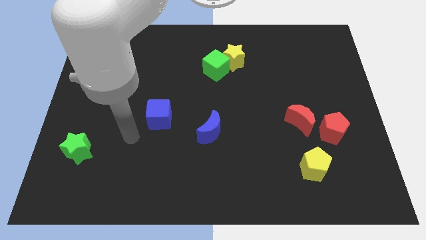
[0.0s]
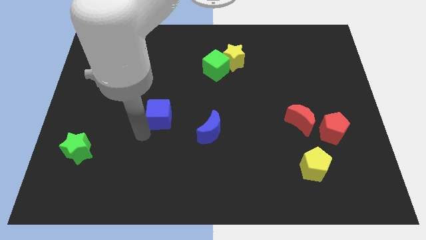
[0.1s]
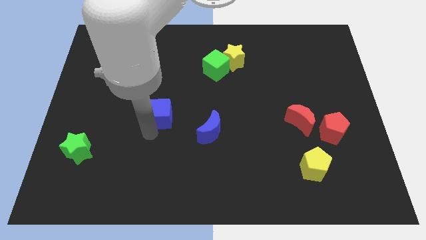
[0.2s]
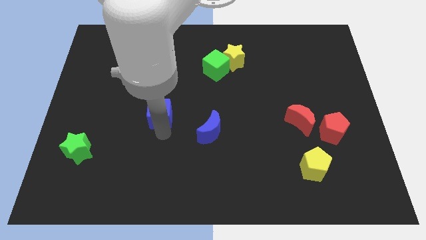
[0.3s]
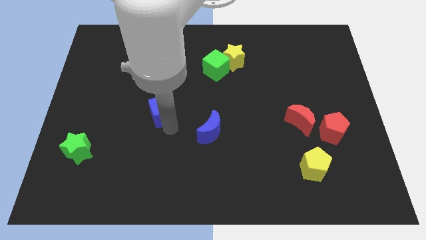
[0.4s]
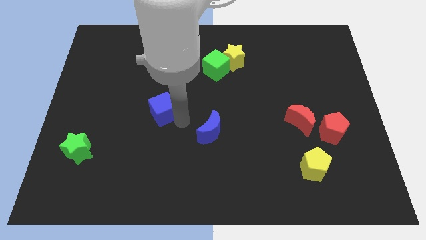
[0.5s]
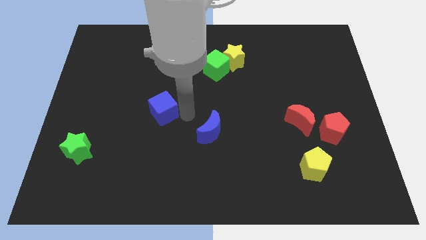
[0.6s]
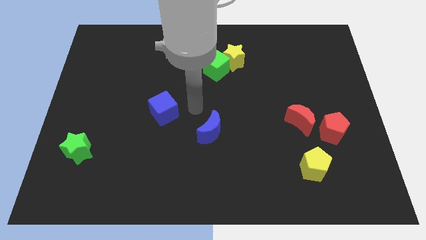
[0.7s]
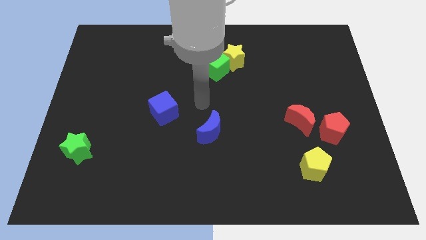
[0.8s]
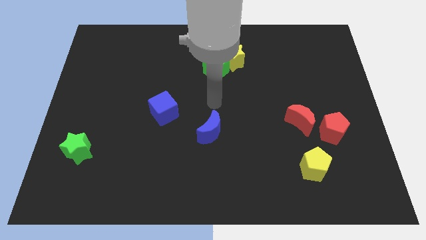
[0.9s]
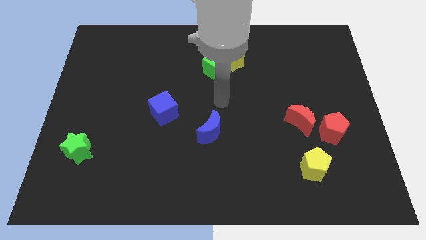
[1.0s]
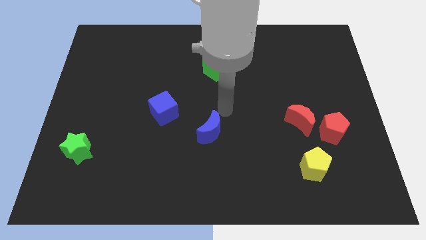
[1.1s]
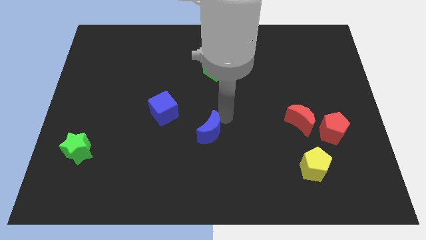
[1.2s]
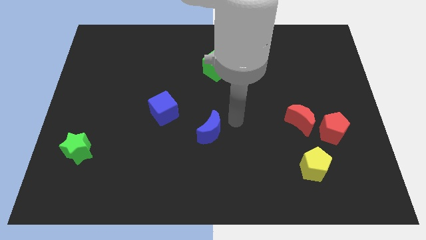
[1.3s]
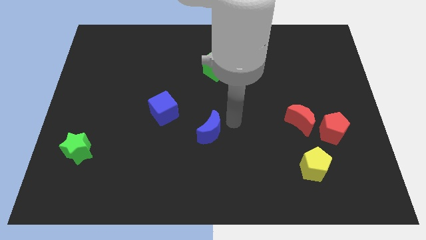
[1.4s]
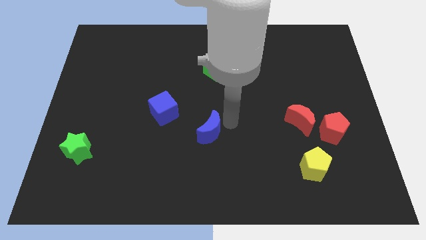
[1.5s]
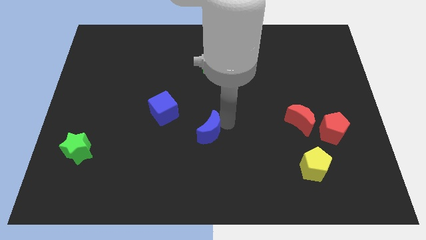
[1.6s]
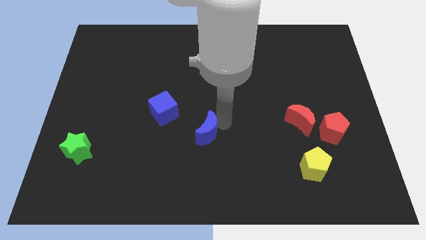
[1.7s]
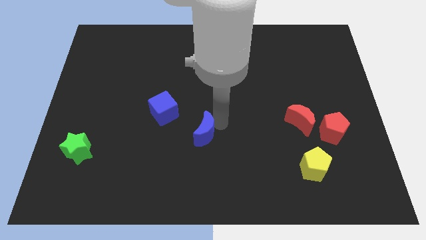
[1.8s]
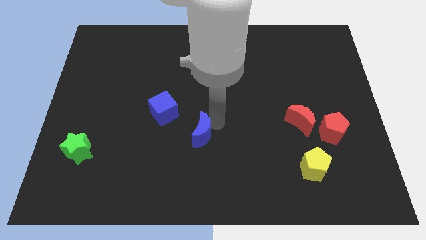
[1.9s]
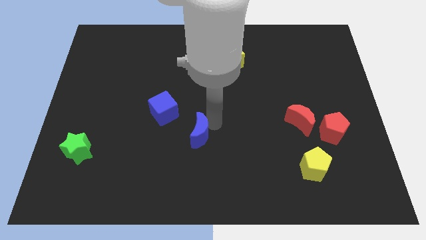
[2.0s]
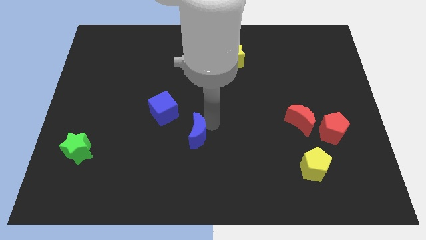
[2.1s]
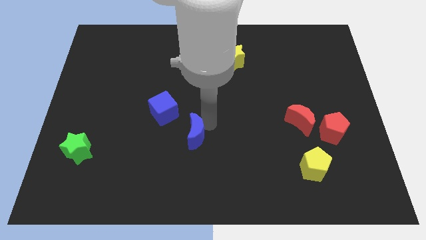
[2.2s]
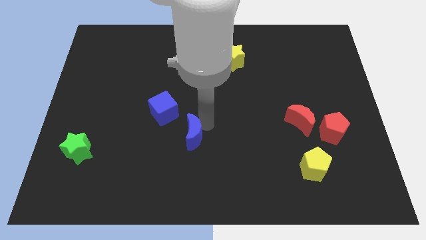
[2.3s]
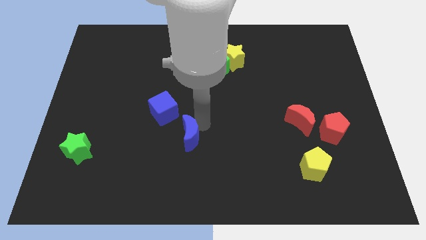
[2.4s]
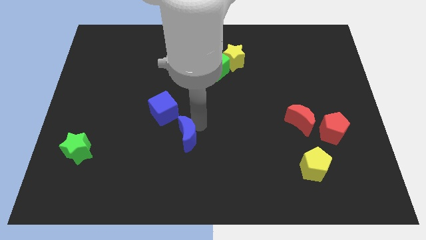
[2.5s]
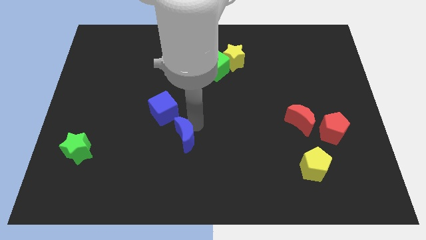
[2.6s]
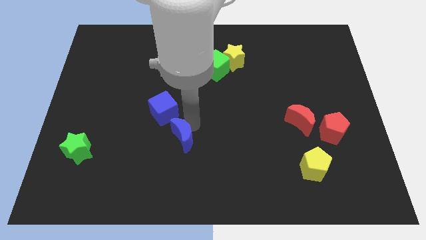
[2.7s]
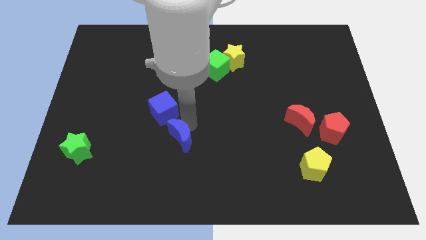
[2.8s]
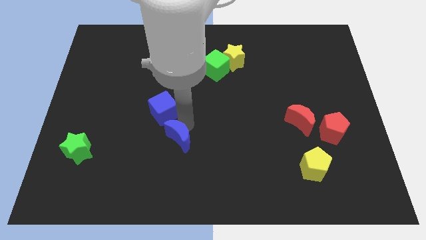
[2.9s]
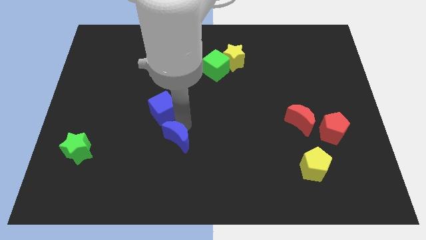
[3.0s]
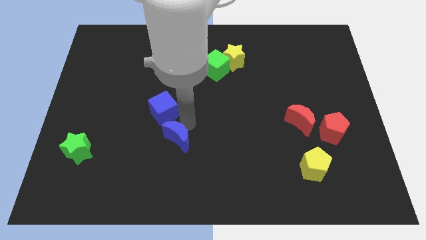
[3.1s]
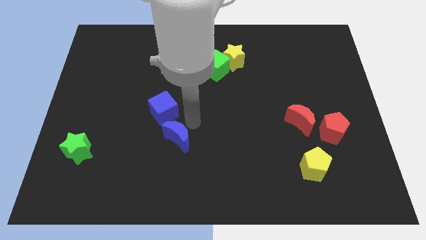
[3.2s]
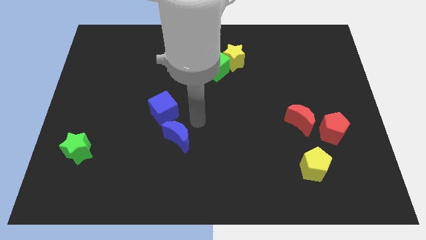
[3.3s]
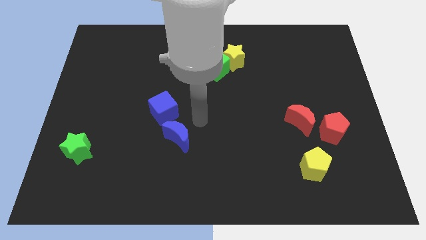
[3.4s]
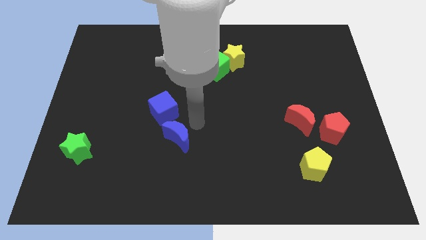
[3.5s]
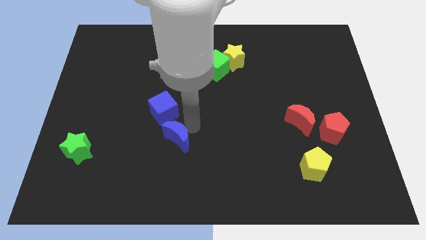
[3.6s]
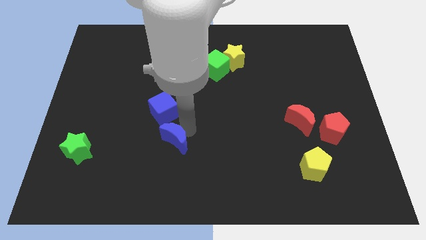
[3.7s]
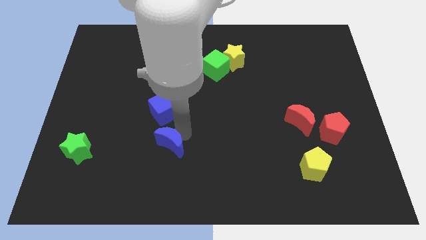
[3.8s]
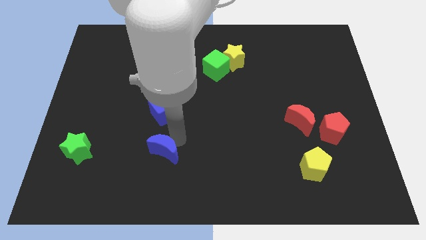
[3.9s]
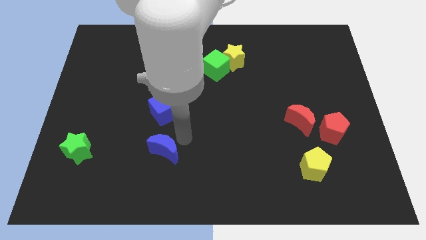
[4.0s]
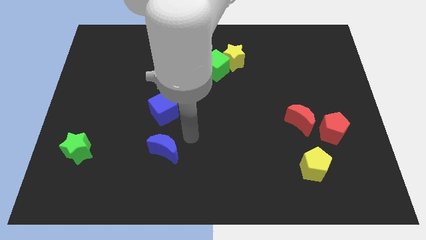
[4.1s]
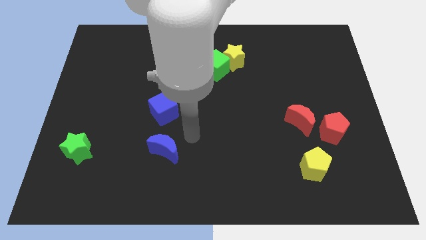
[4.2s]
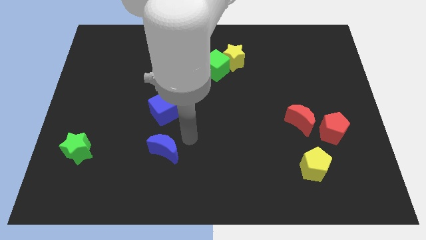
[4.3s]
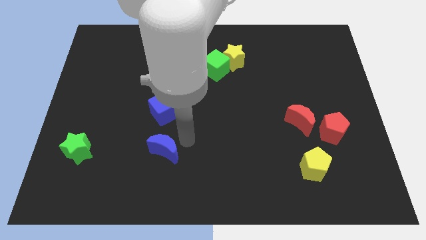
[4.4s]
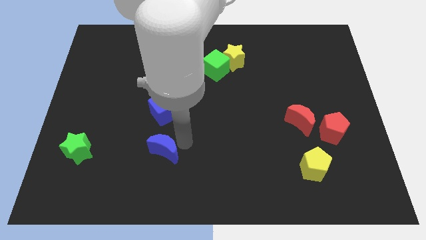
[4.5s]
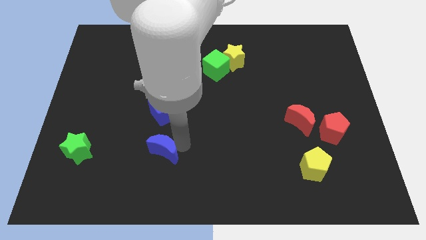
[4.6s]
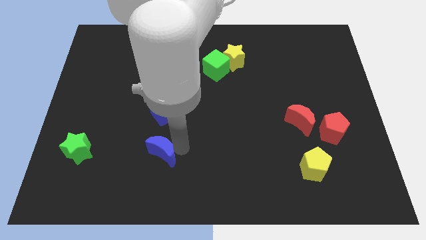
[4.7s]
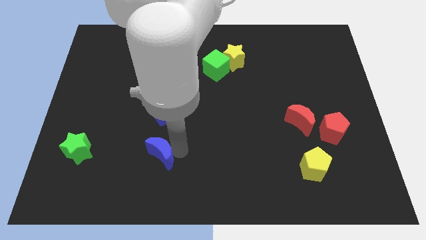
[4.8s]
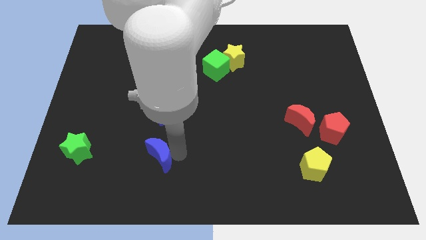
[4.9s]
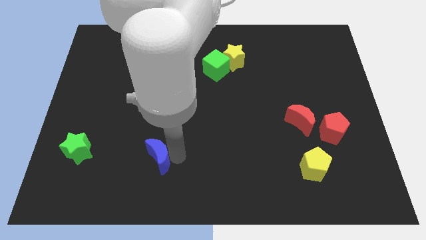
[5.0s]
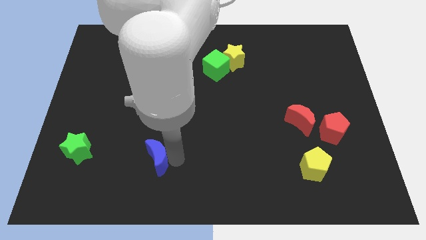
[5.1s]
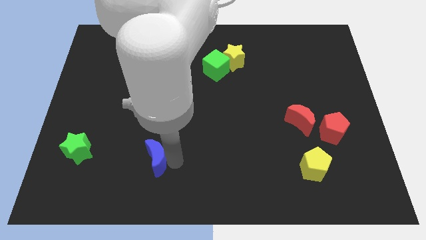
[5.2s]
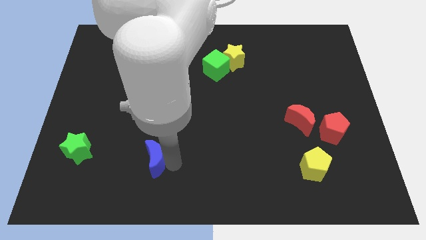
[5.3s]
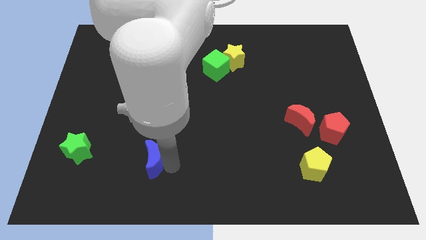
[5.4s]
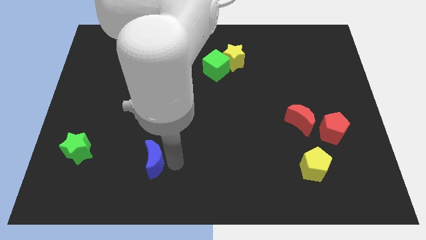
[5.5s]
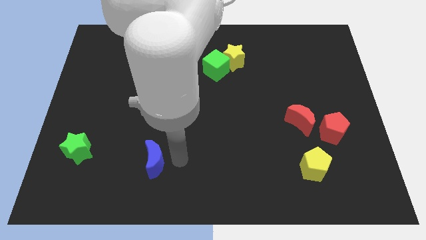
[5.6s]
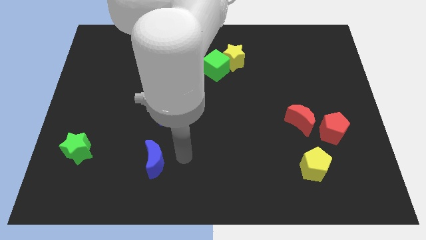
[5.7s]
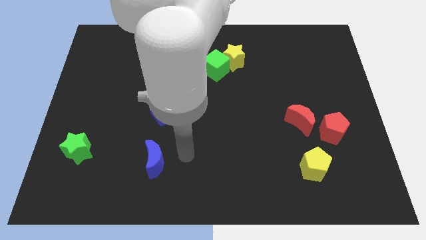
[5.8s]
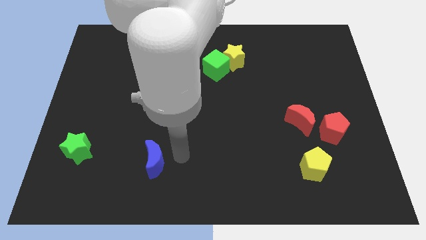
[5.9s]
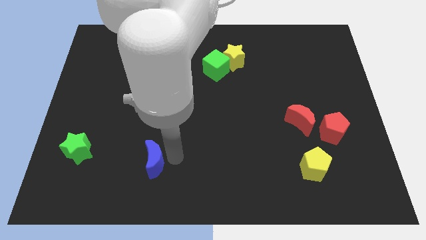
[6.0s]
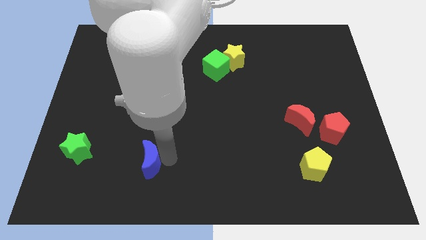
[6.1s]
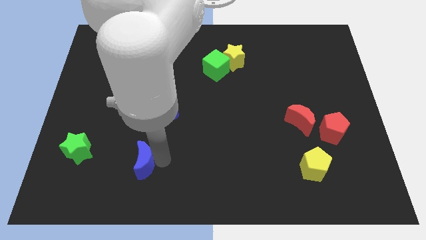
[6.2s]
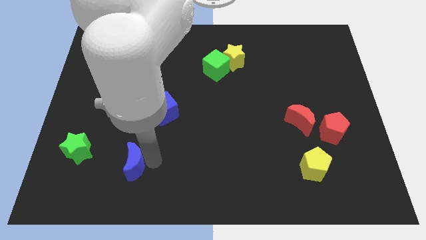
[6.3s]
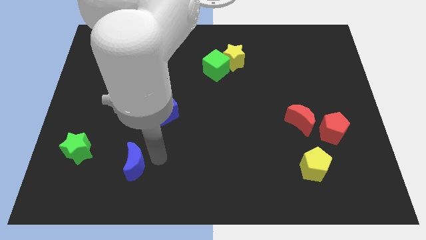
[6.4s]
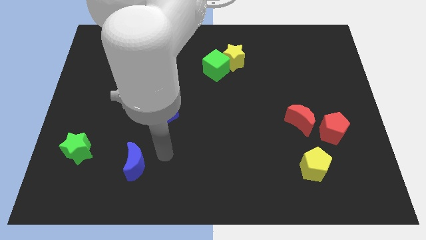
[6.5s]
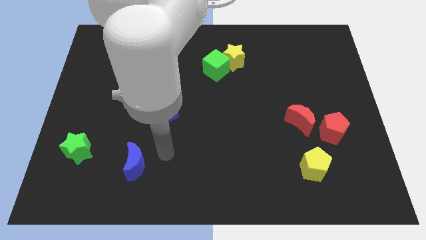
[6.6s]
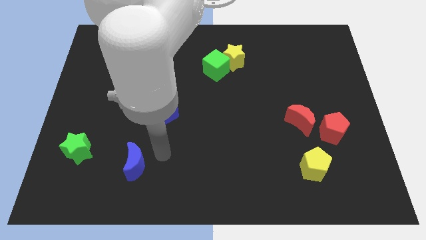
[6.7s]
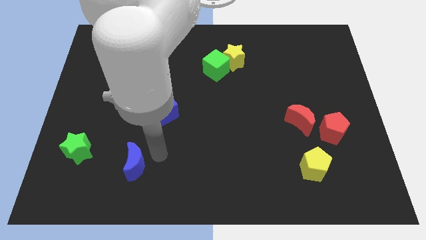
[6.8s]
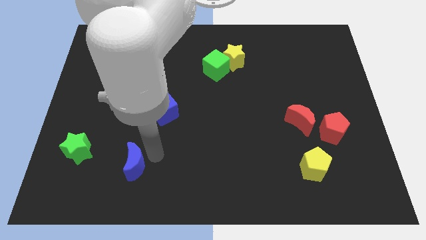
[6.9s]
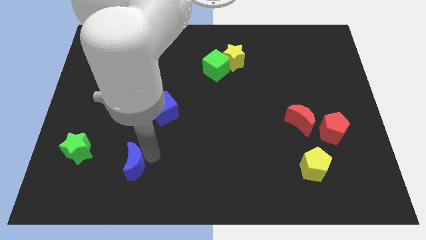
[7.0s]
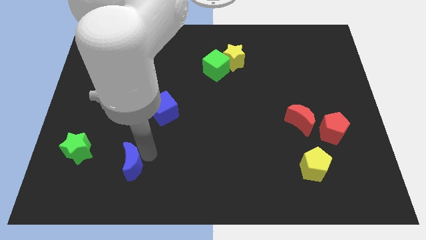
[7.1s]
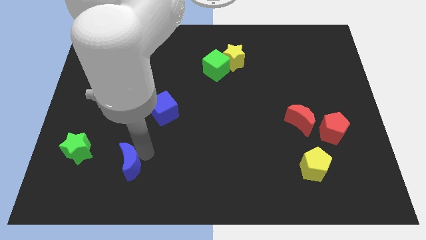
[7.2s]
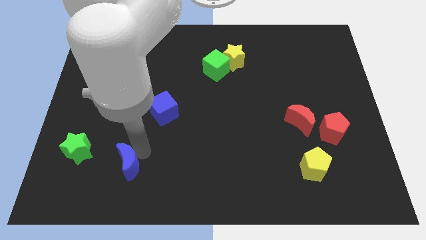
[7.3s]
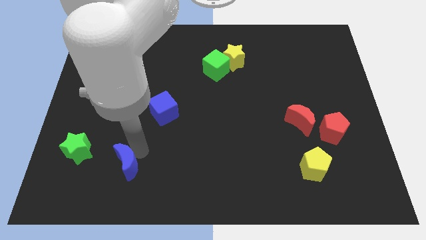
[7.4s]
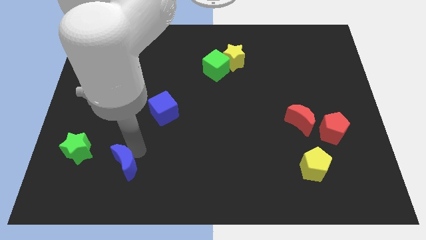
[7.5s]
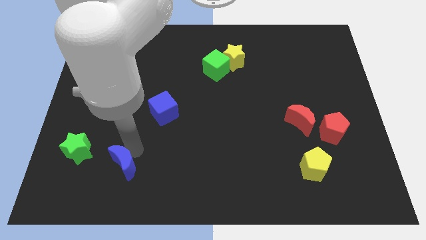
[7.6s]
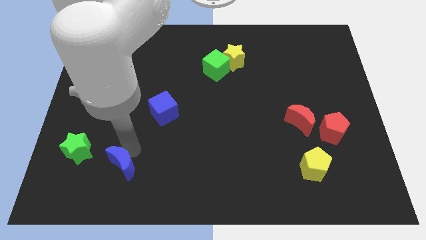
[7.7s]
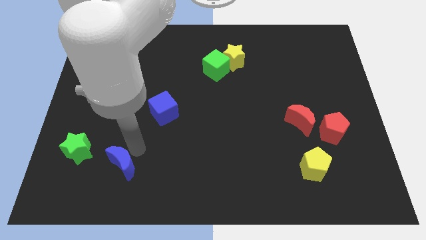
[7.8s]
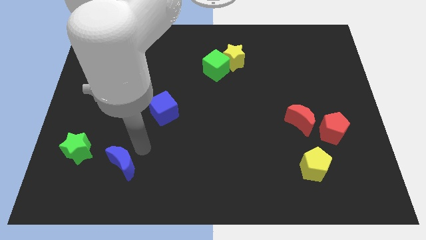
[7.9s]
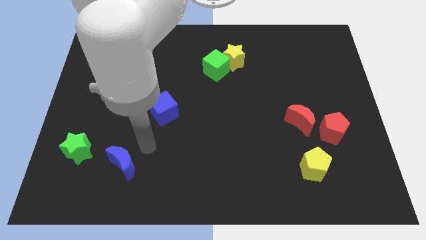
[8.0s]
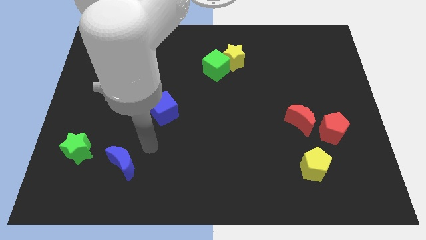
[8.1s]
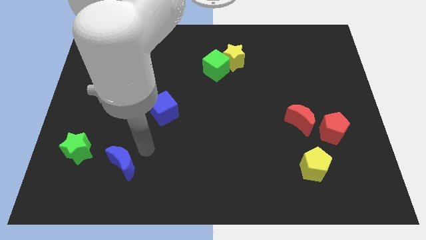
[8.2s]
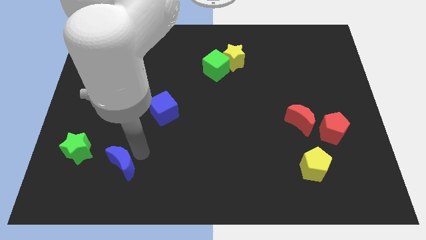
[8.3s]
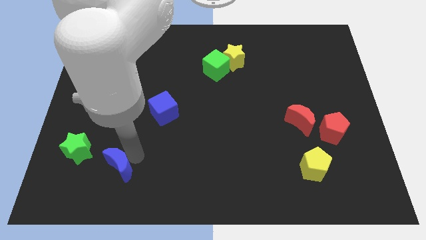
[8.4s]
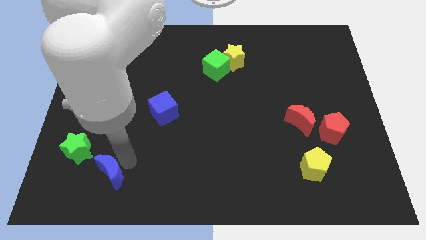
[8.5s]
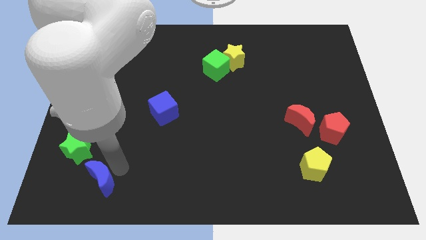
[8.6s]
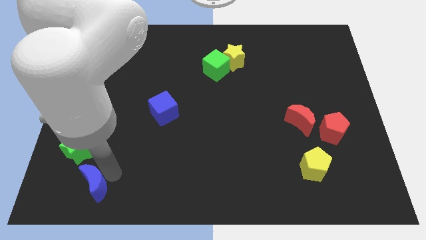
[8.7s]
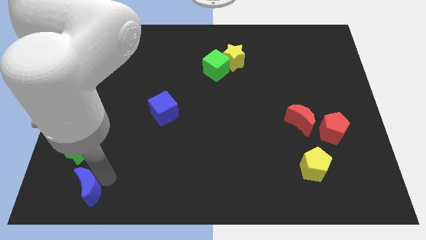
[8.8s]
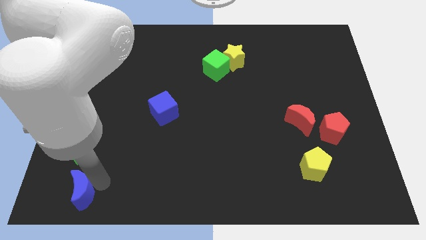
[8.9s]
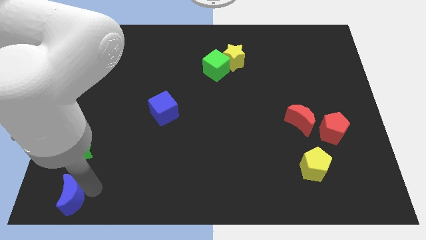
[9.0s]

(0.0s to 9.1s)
slide the blue moon to the bottom left
